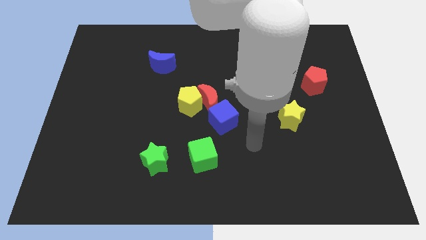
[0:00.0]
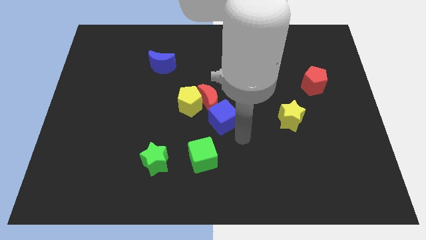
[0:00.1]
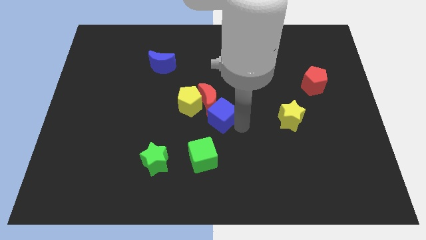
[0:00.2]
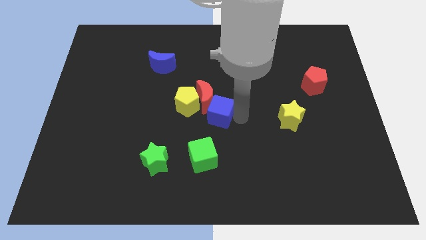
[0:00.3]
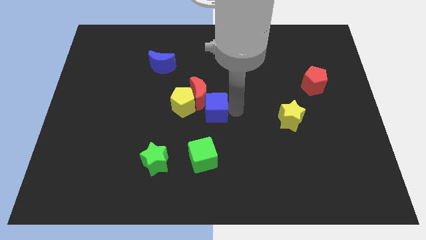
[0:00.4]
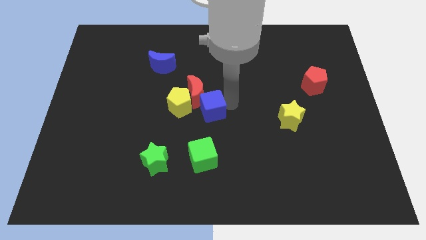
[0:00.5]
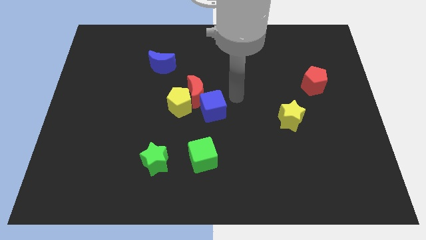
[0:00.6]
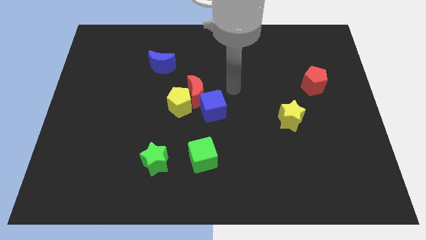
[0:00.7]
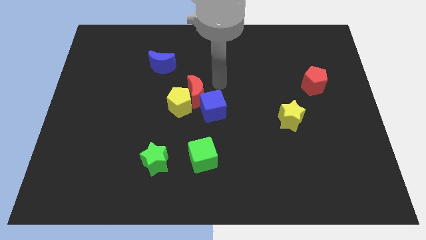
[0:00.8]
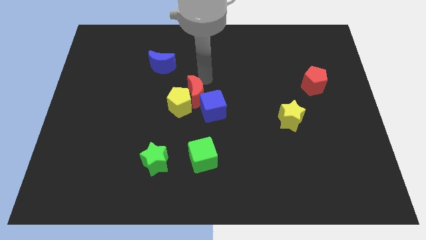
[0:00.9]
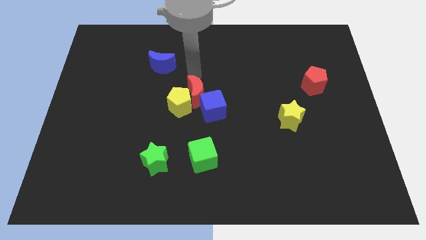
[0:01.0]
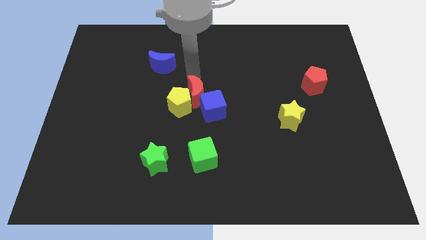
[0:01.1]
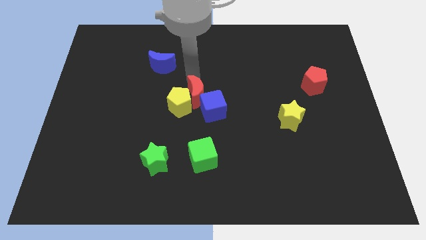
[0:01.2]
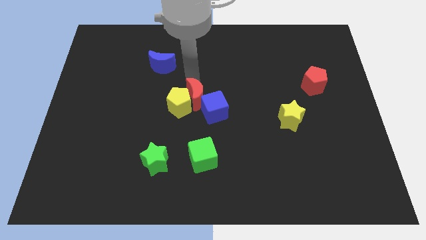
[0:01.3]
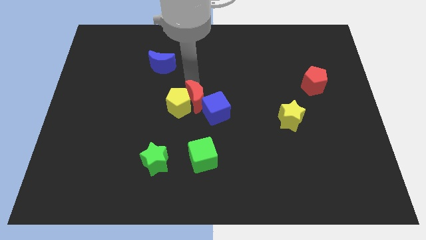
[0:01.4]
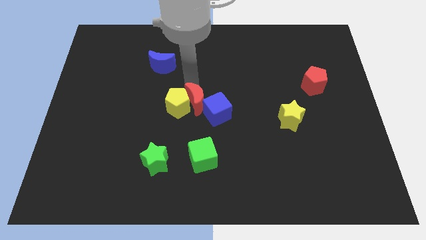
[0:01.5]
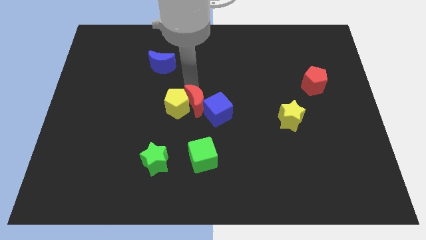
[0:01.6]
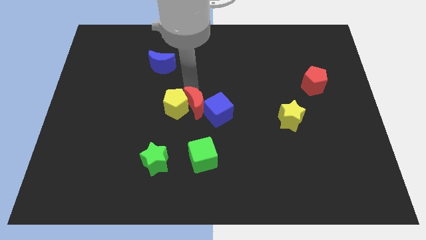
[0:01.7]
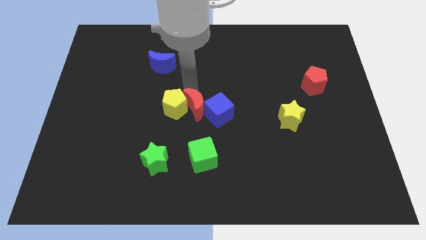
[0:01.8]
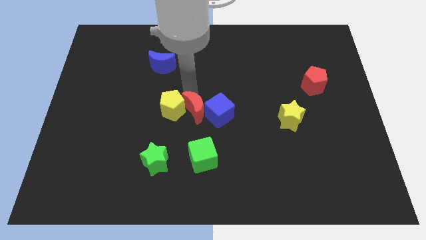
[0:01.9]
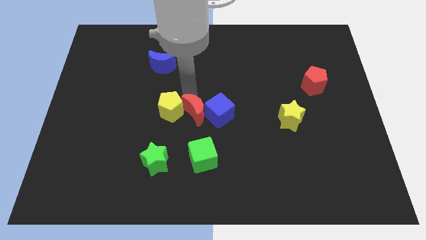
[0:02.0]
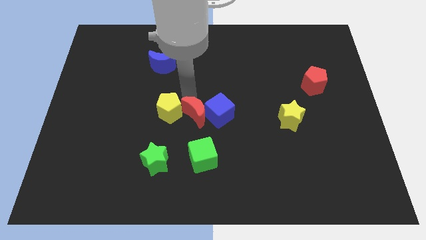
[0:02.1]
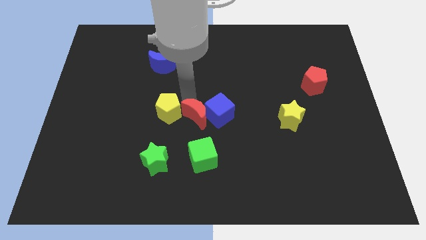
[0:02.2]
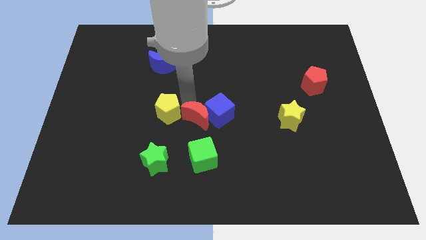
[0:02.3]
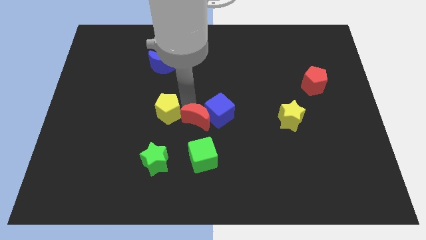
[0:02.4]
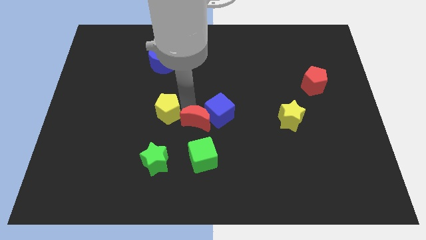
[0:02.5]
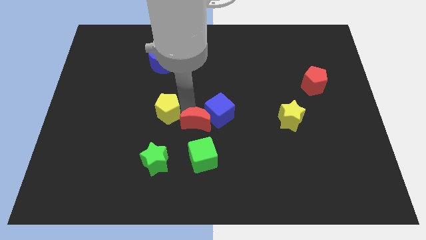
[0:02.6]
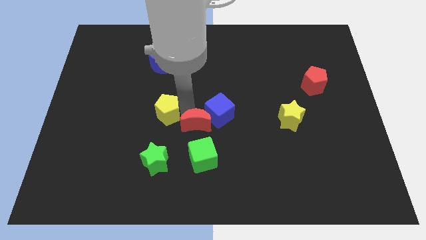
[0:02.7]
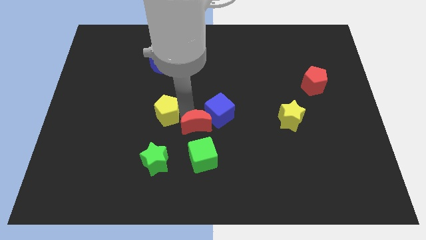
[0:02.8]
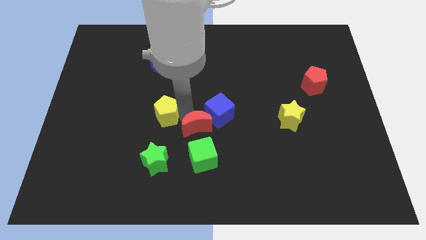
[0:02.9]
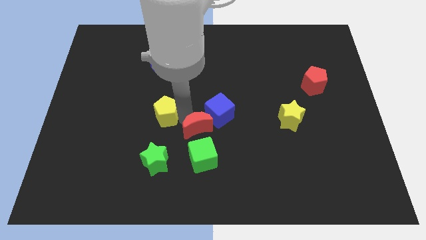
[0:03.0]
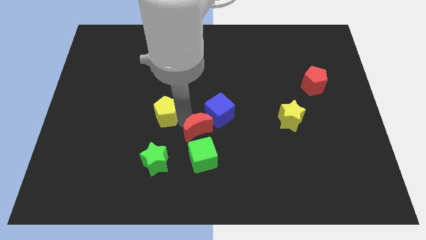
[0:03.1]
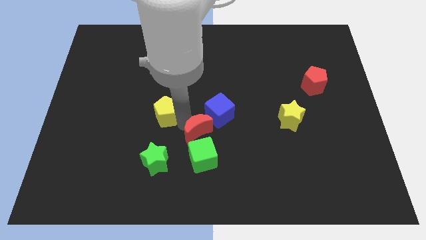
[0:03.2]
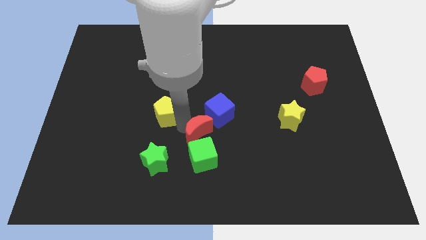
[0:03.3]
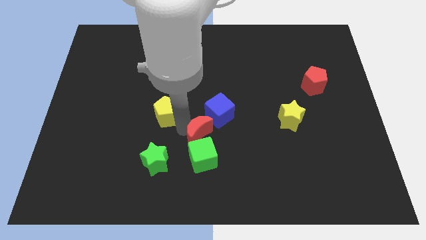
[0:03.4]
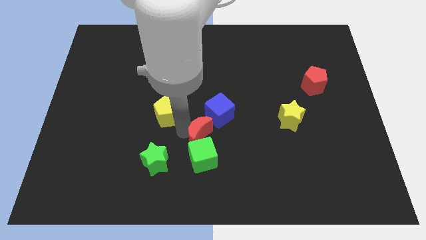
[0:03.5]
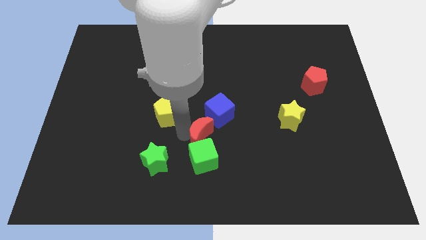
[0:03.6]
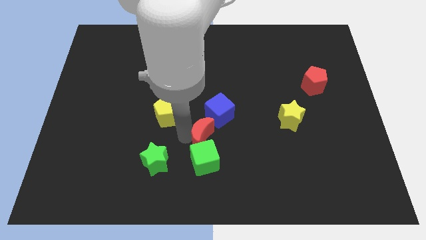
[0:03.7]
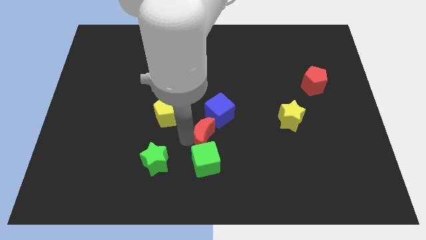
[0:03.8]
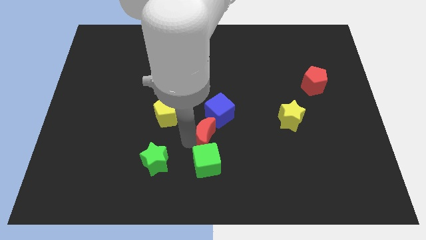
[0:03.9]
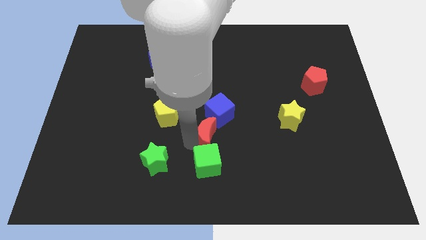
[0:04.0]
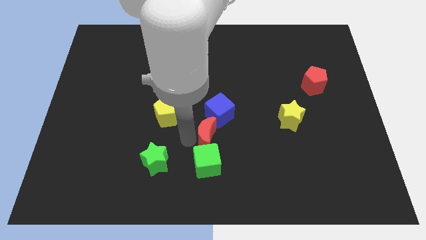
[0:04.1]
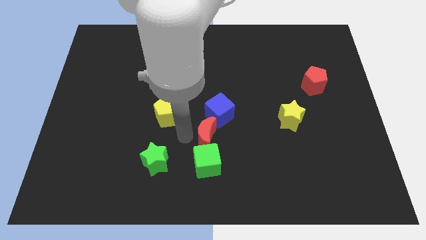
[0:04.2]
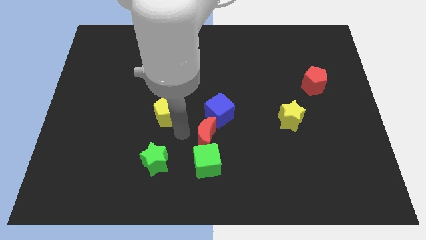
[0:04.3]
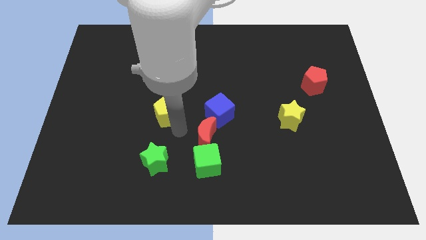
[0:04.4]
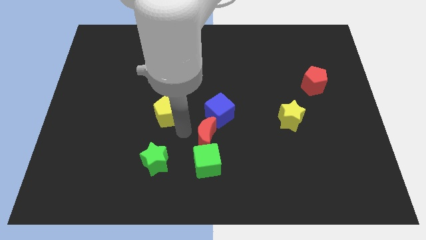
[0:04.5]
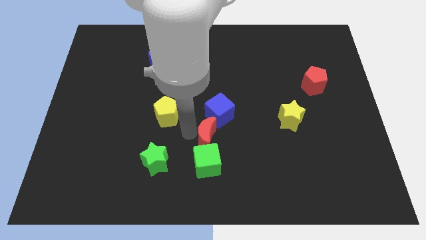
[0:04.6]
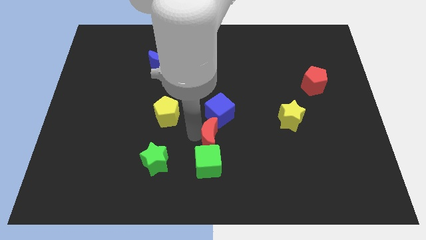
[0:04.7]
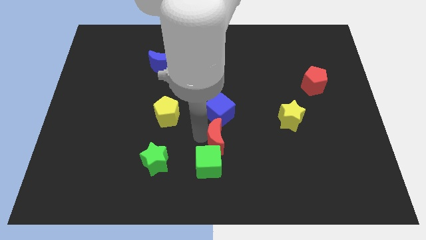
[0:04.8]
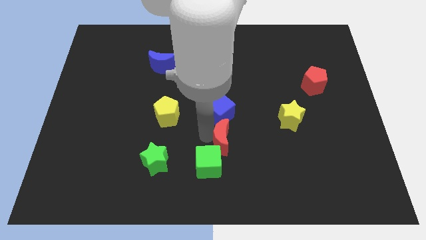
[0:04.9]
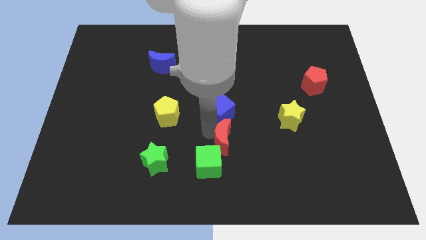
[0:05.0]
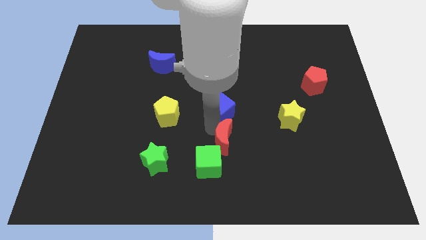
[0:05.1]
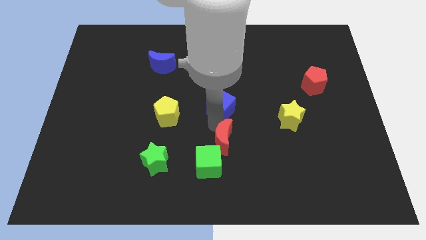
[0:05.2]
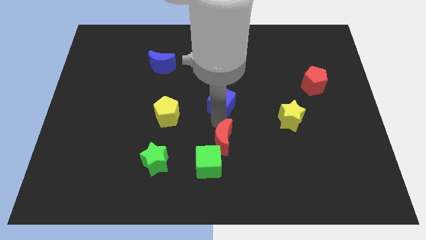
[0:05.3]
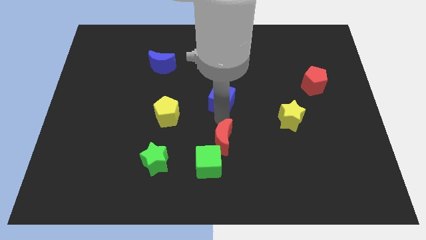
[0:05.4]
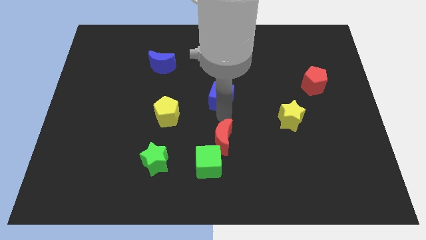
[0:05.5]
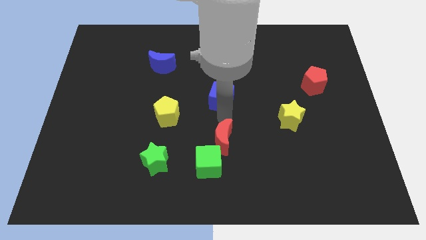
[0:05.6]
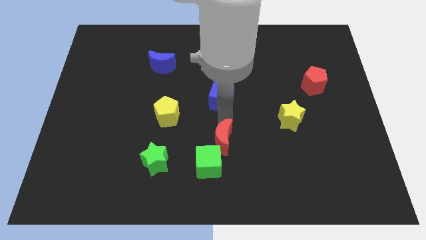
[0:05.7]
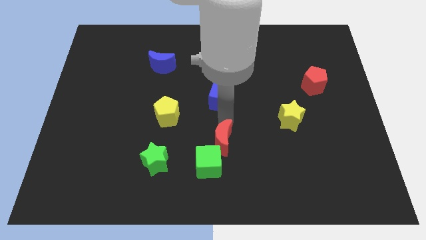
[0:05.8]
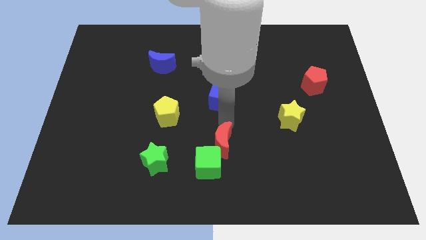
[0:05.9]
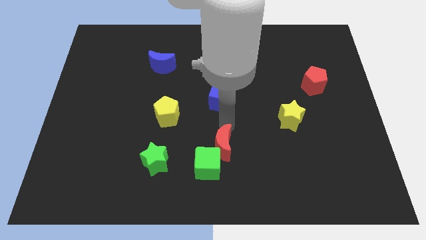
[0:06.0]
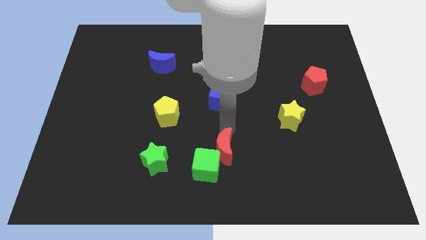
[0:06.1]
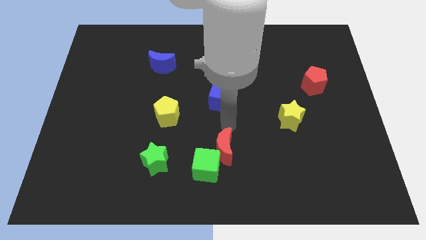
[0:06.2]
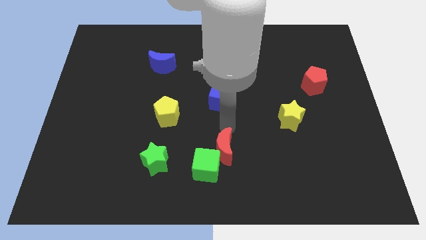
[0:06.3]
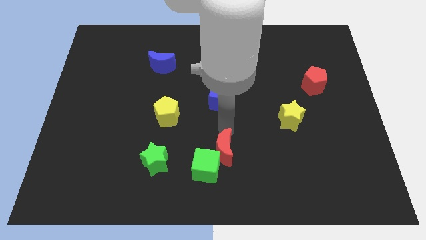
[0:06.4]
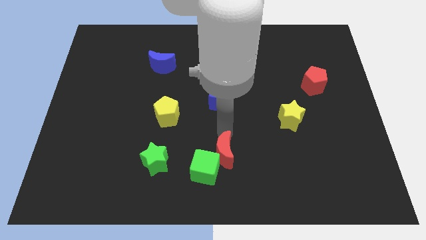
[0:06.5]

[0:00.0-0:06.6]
put the red moon to the bottom
